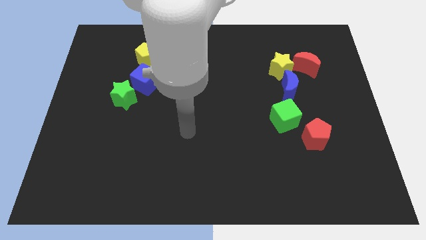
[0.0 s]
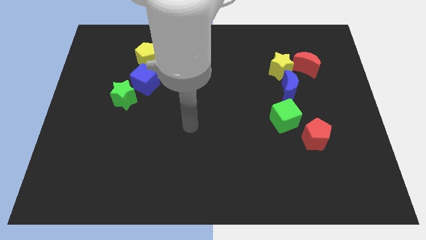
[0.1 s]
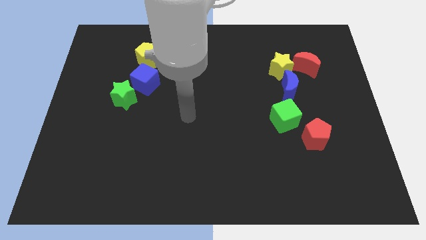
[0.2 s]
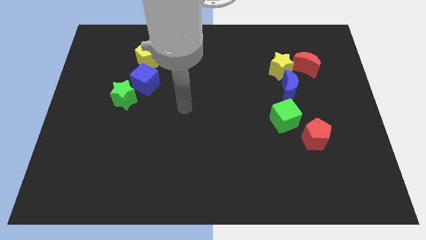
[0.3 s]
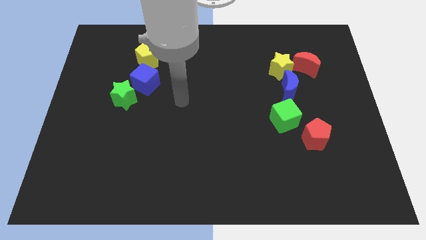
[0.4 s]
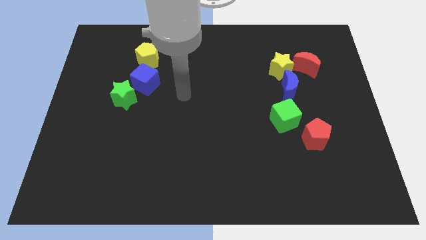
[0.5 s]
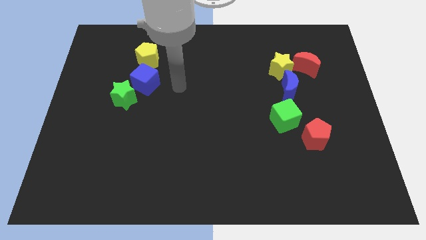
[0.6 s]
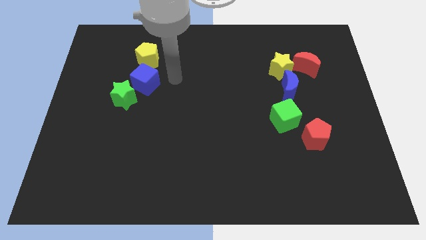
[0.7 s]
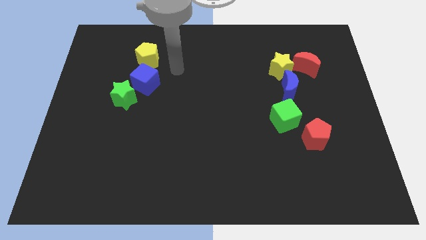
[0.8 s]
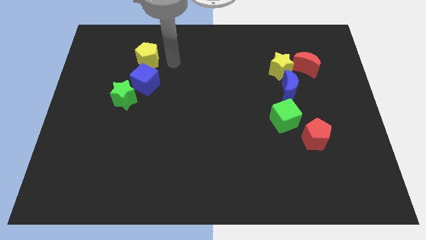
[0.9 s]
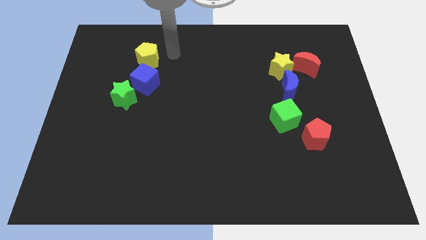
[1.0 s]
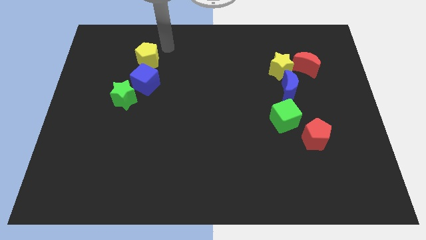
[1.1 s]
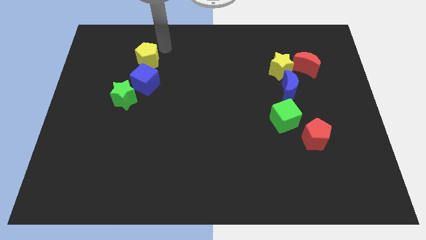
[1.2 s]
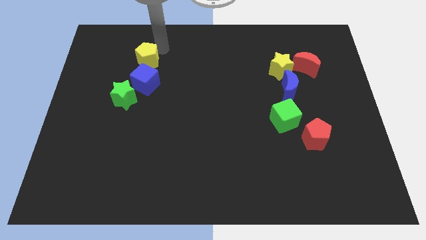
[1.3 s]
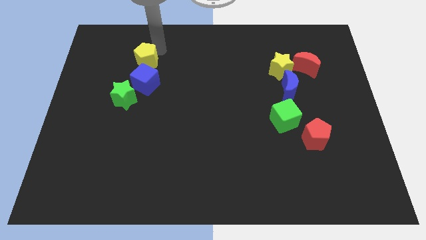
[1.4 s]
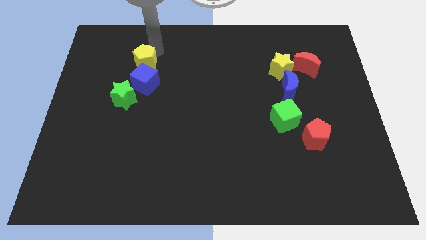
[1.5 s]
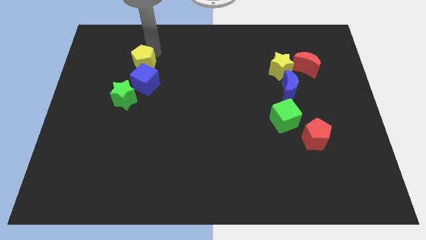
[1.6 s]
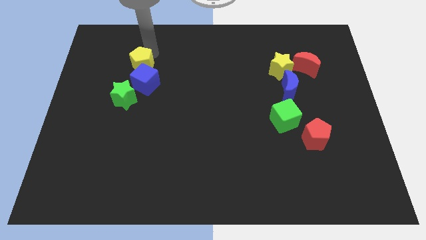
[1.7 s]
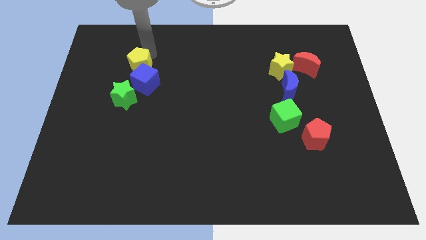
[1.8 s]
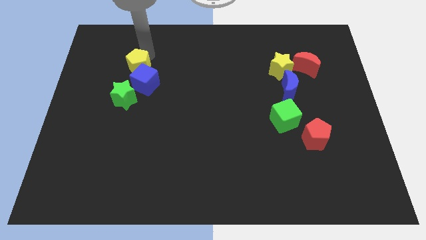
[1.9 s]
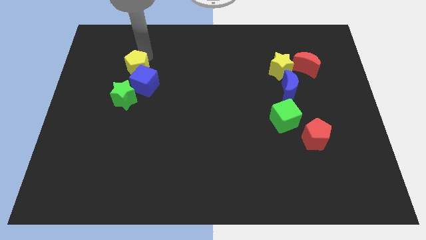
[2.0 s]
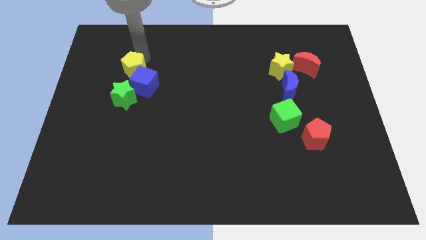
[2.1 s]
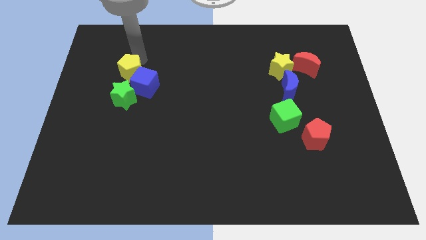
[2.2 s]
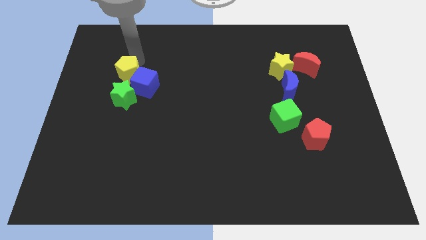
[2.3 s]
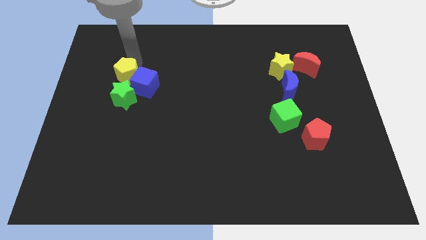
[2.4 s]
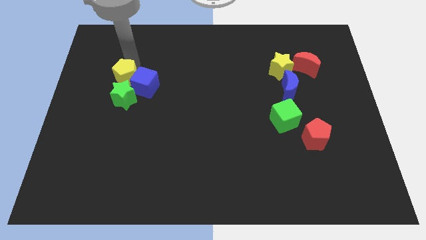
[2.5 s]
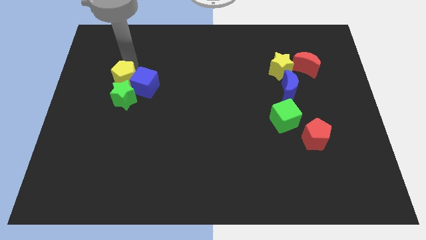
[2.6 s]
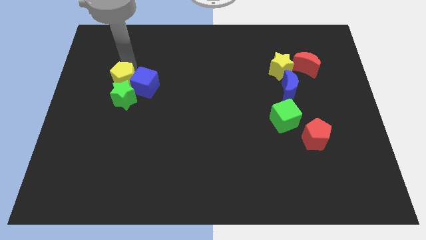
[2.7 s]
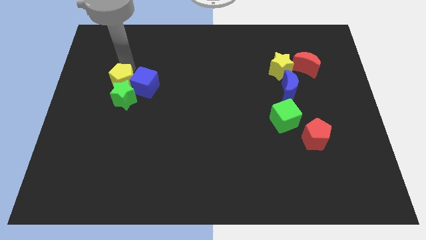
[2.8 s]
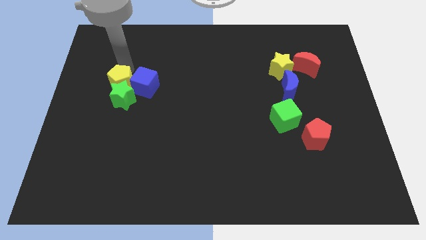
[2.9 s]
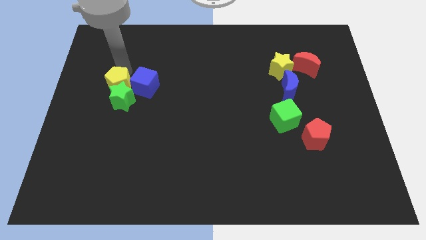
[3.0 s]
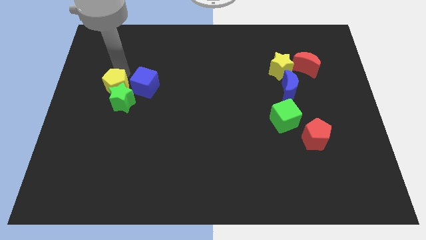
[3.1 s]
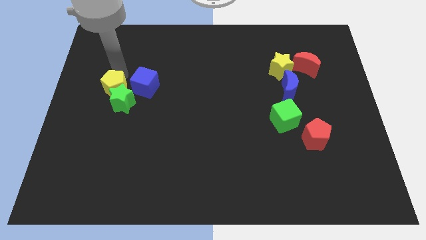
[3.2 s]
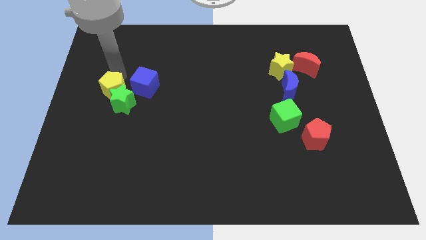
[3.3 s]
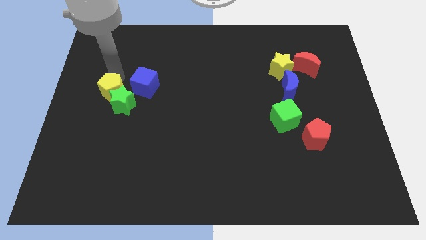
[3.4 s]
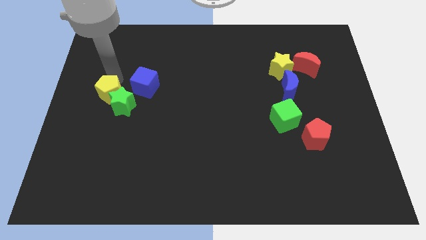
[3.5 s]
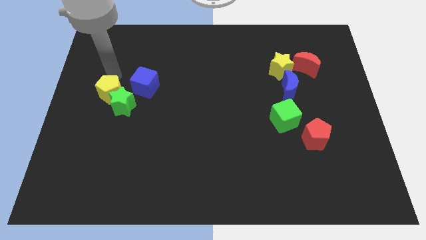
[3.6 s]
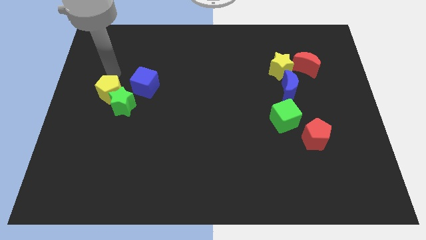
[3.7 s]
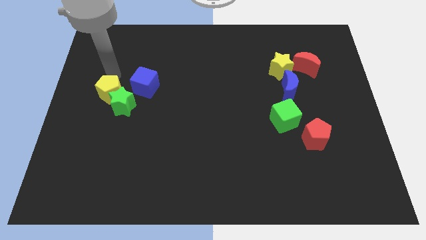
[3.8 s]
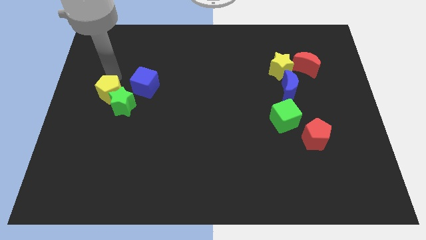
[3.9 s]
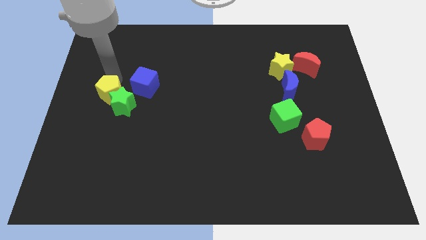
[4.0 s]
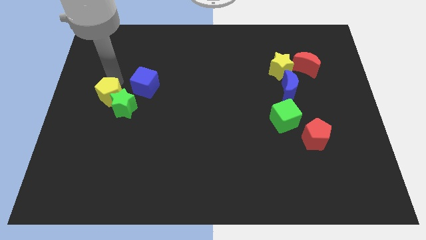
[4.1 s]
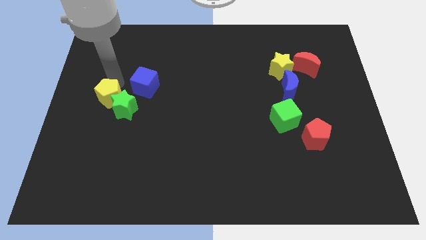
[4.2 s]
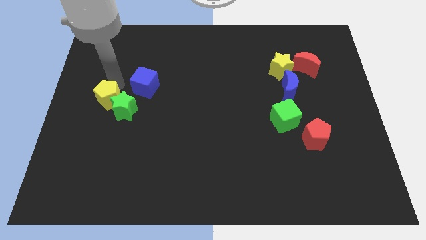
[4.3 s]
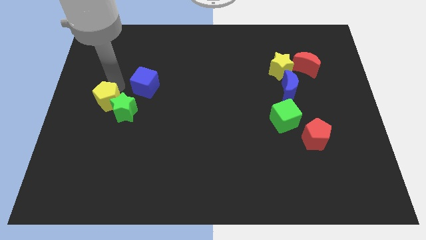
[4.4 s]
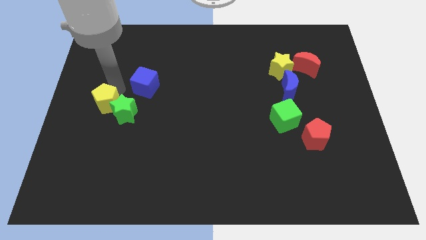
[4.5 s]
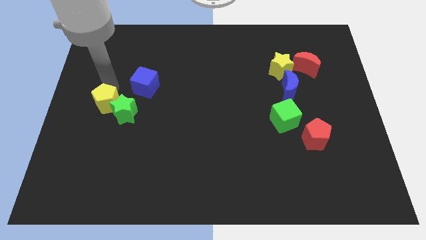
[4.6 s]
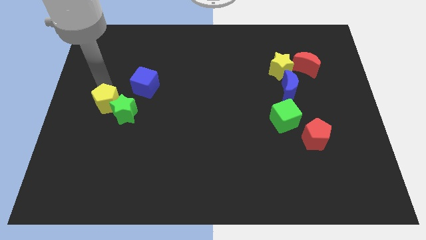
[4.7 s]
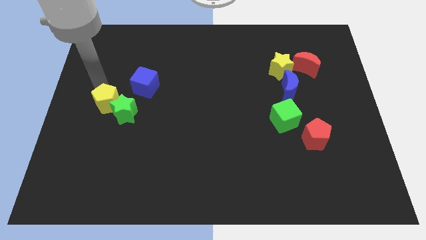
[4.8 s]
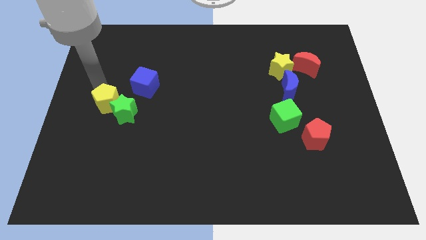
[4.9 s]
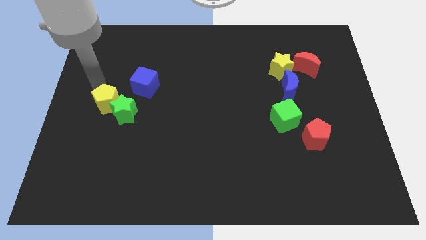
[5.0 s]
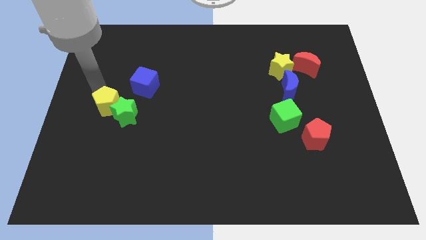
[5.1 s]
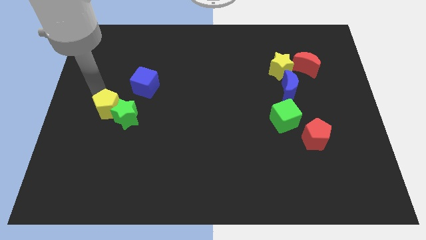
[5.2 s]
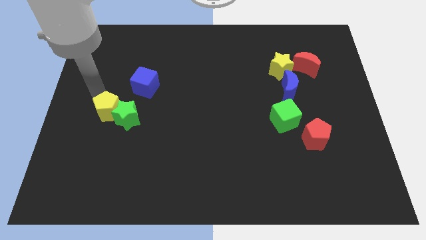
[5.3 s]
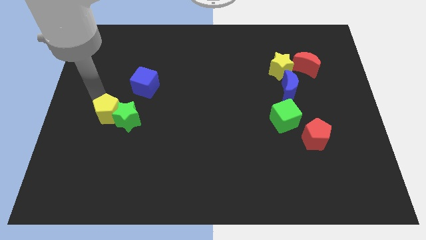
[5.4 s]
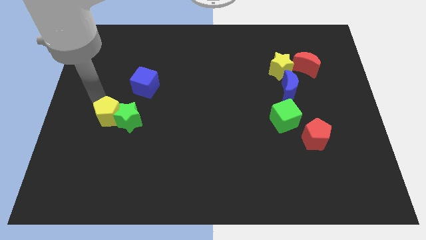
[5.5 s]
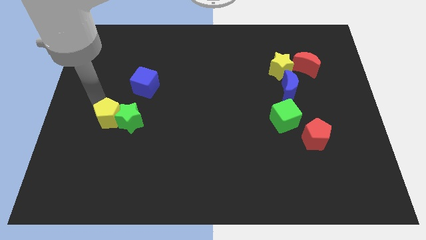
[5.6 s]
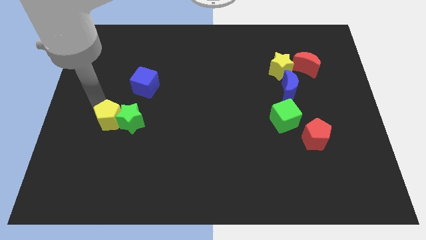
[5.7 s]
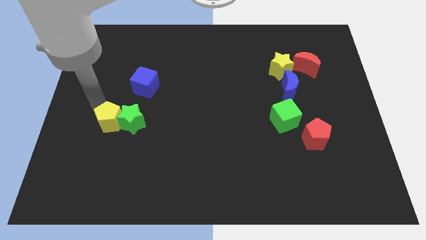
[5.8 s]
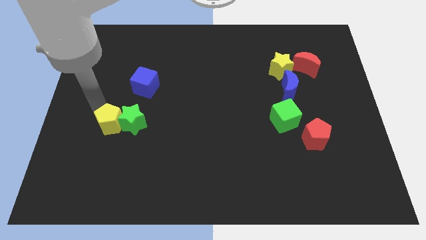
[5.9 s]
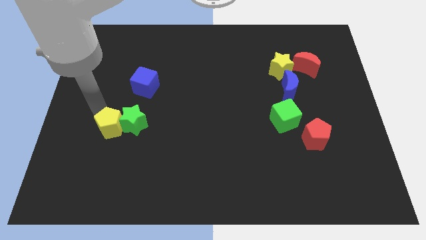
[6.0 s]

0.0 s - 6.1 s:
push the yellow pentagon downwards

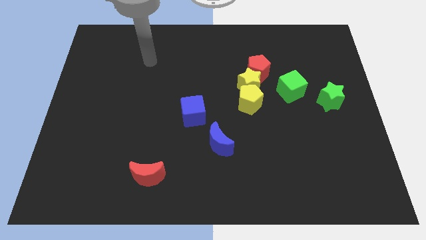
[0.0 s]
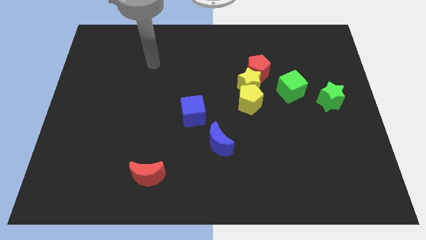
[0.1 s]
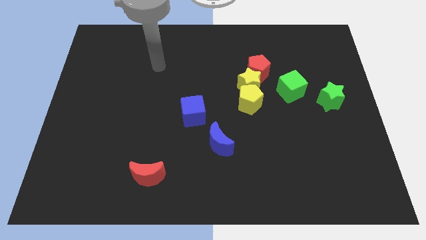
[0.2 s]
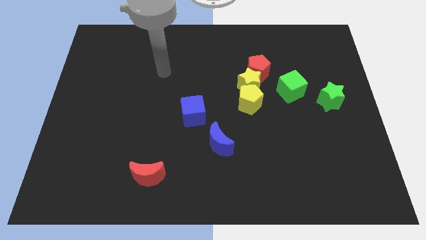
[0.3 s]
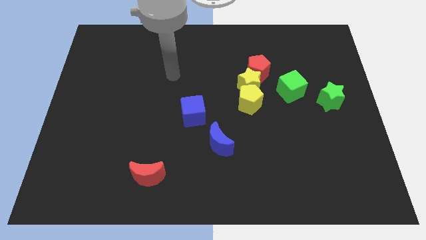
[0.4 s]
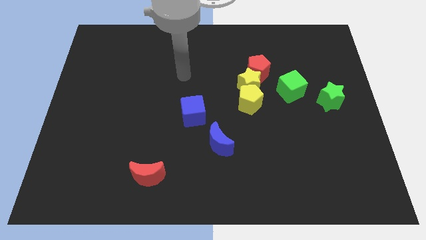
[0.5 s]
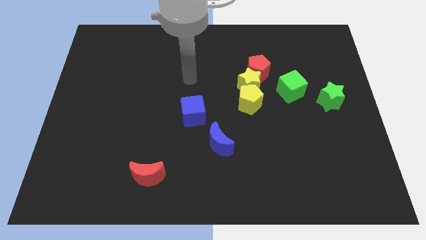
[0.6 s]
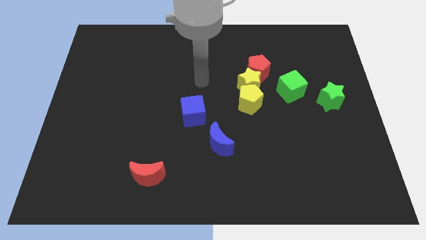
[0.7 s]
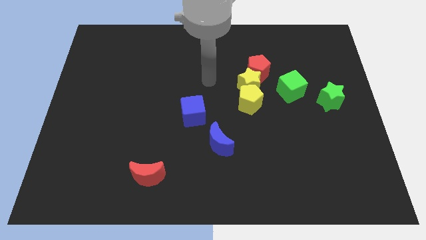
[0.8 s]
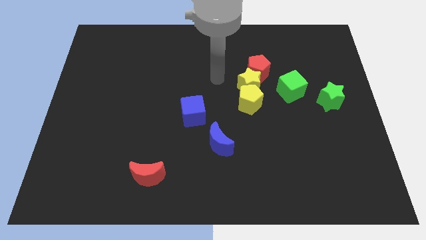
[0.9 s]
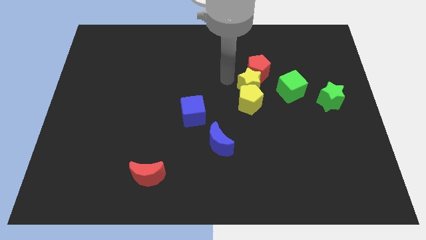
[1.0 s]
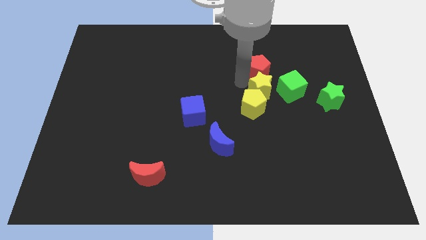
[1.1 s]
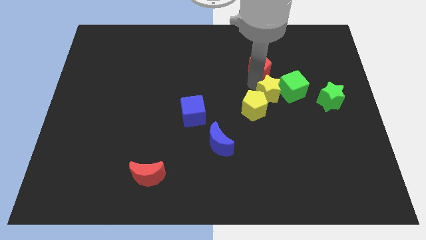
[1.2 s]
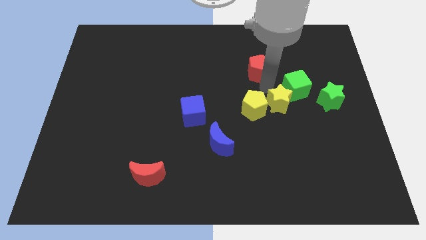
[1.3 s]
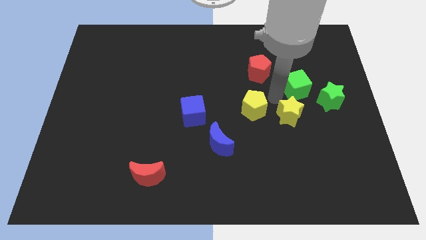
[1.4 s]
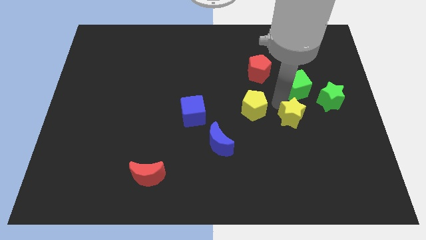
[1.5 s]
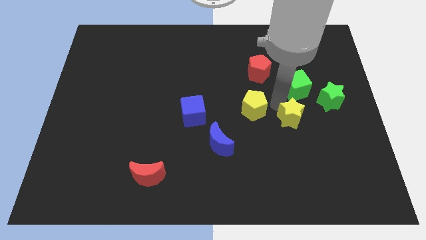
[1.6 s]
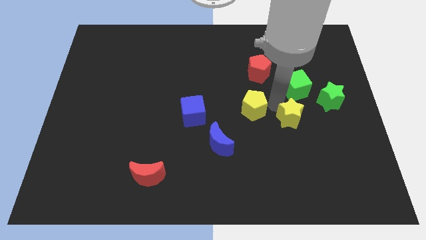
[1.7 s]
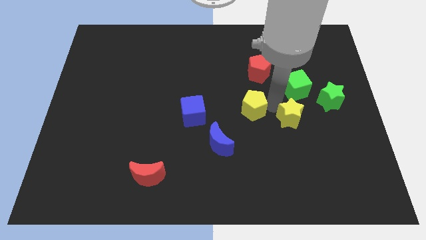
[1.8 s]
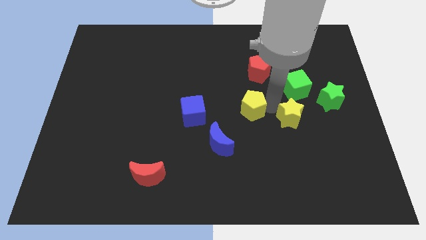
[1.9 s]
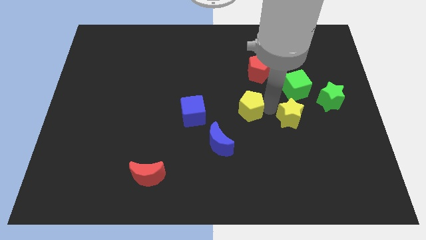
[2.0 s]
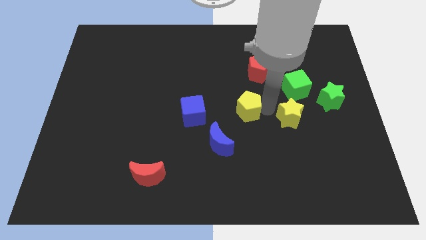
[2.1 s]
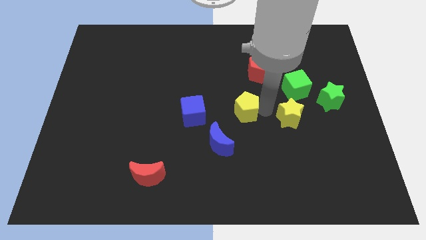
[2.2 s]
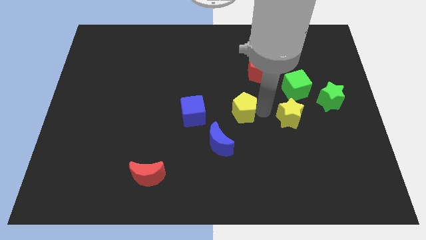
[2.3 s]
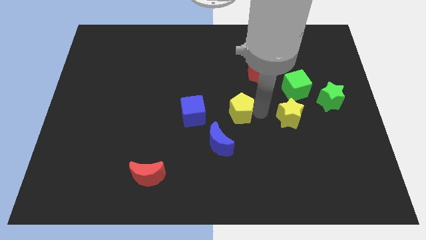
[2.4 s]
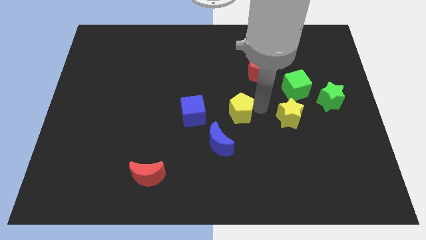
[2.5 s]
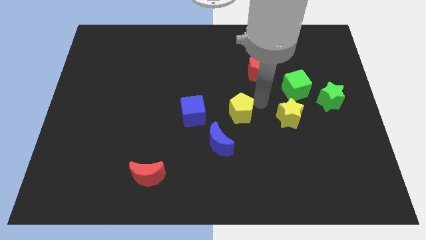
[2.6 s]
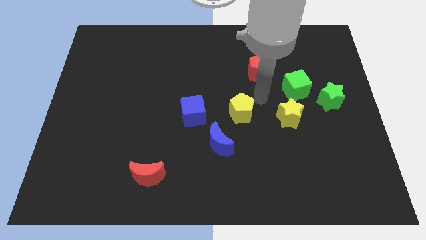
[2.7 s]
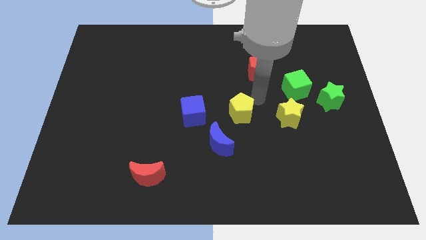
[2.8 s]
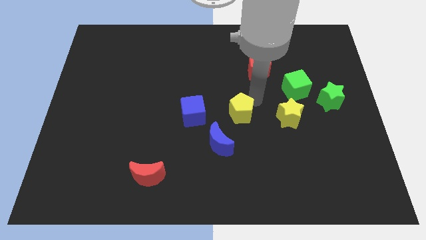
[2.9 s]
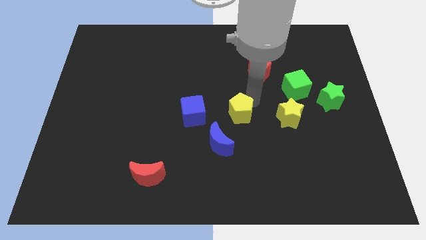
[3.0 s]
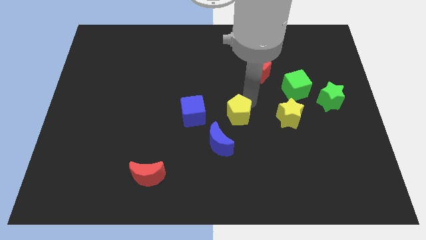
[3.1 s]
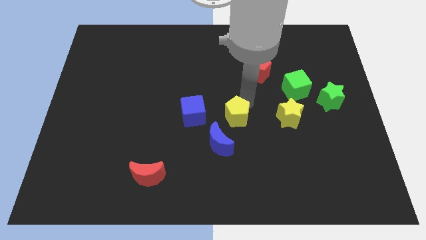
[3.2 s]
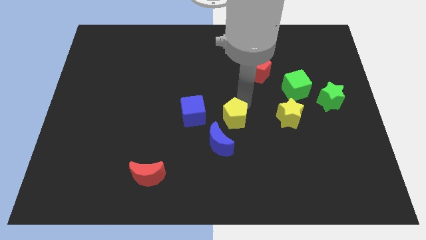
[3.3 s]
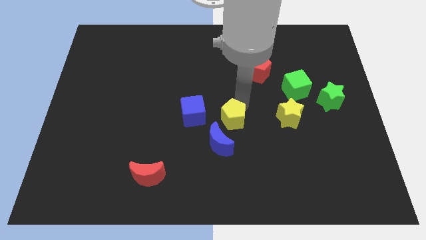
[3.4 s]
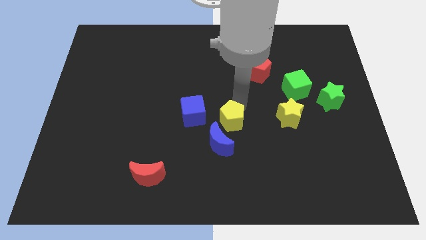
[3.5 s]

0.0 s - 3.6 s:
slightly push the yellow pentagon down and left
